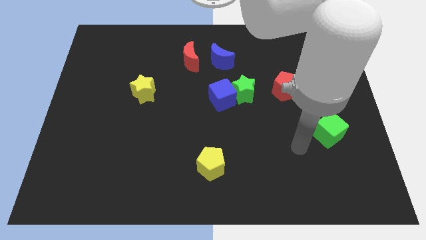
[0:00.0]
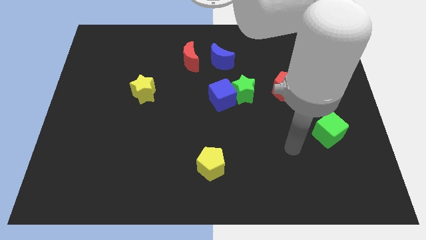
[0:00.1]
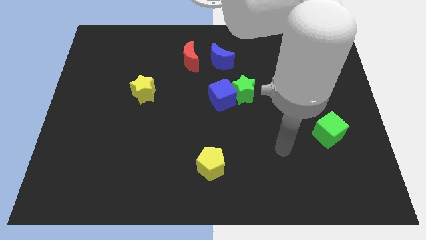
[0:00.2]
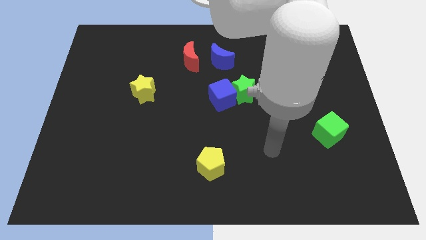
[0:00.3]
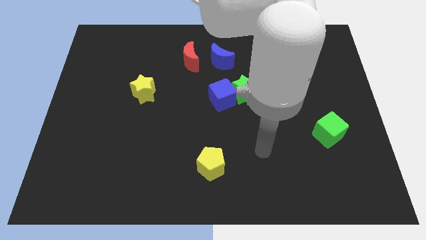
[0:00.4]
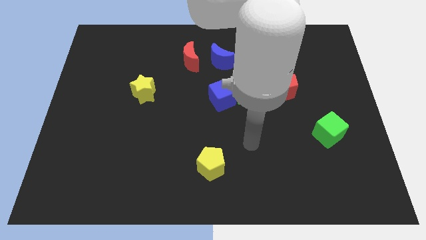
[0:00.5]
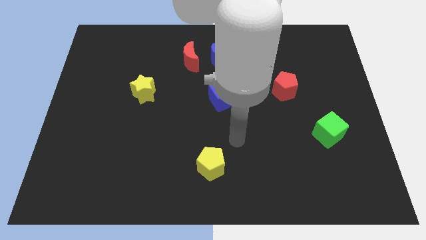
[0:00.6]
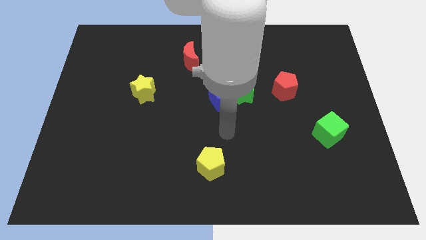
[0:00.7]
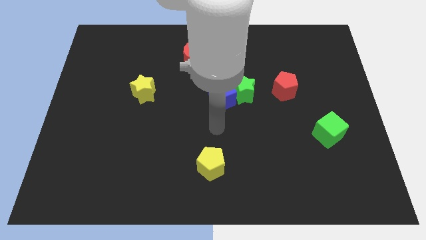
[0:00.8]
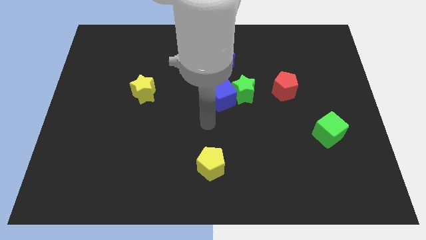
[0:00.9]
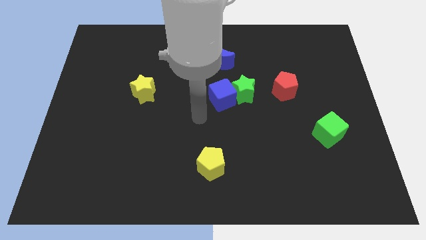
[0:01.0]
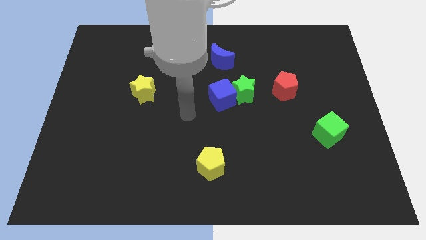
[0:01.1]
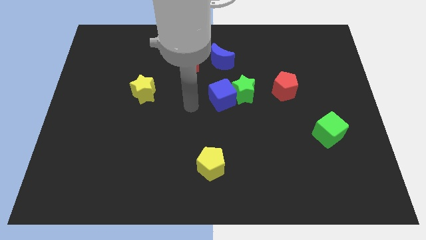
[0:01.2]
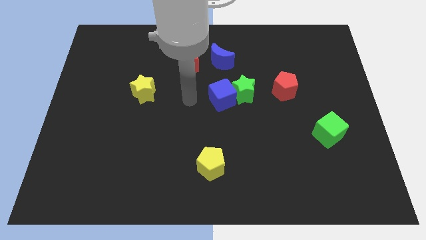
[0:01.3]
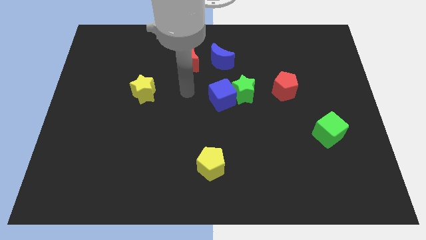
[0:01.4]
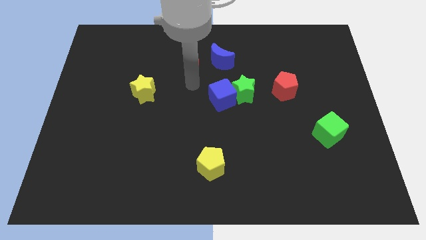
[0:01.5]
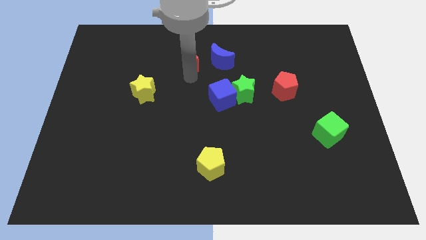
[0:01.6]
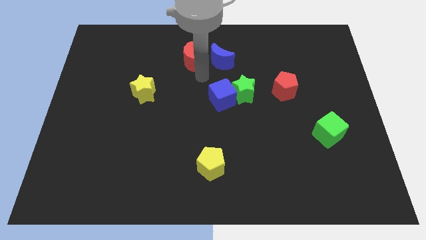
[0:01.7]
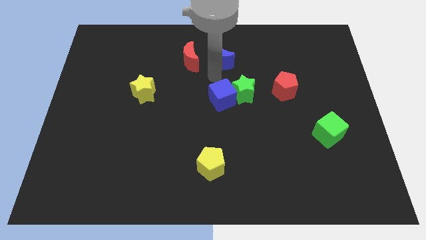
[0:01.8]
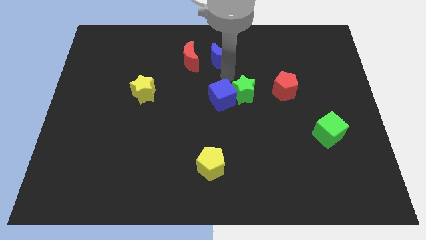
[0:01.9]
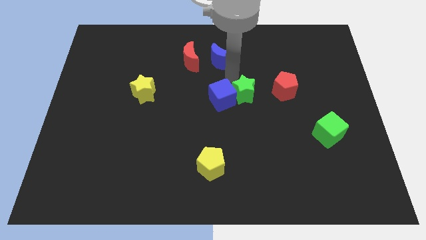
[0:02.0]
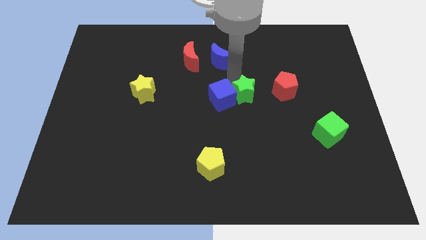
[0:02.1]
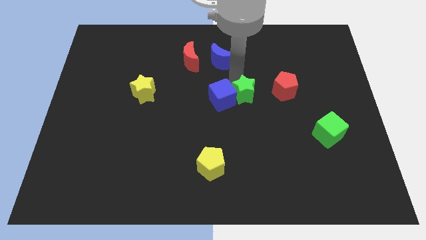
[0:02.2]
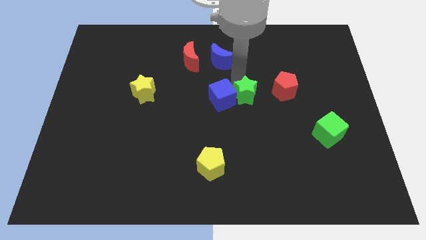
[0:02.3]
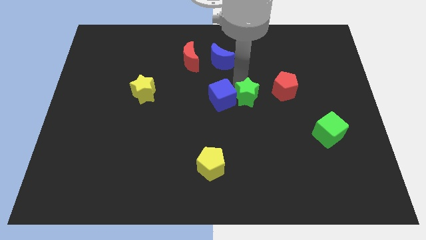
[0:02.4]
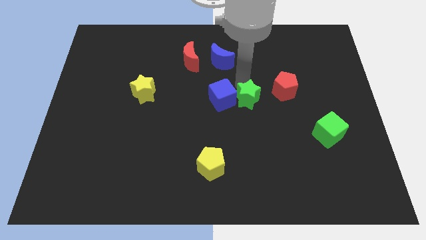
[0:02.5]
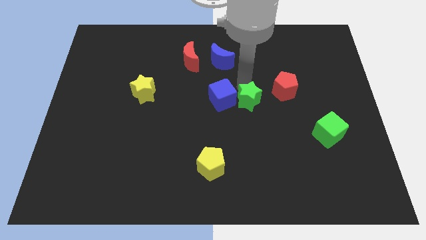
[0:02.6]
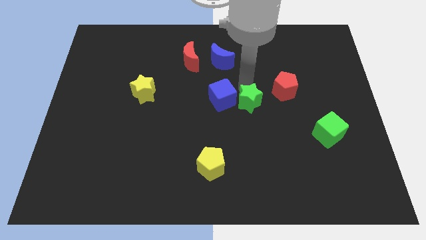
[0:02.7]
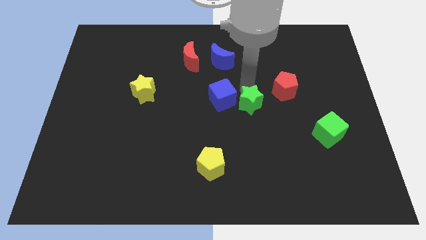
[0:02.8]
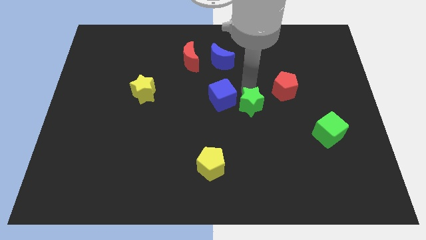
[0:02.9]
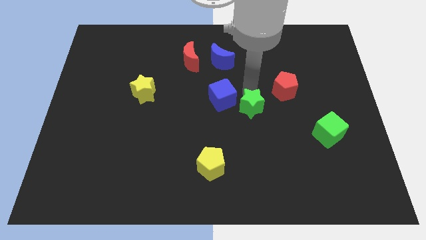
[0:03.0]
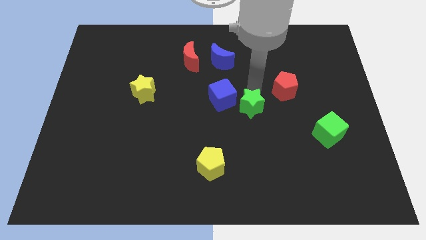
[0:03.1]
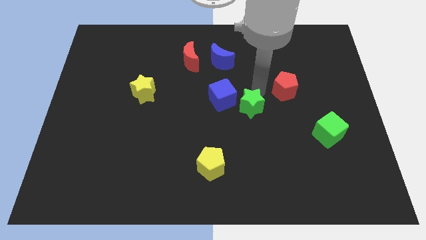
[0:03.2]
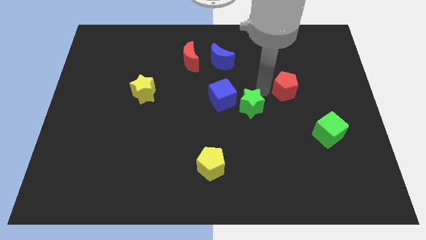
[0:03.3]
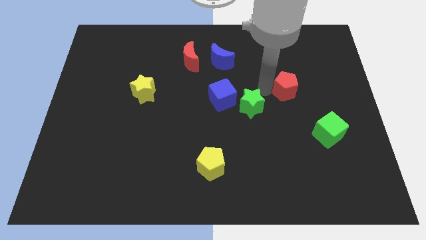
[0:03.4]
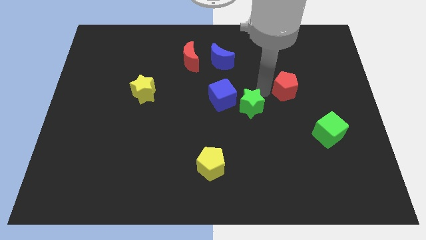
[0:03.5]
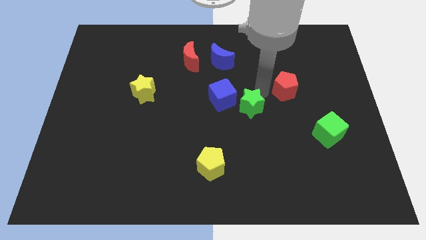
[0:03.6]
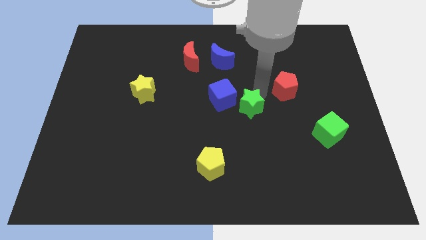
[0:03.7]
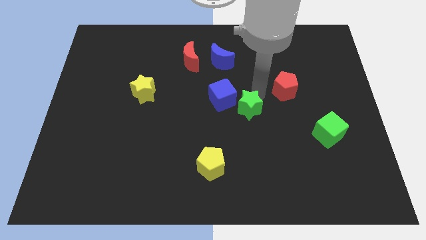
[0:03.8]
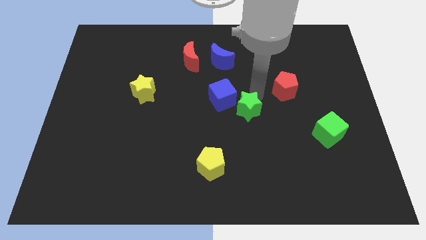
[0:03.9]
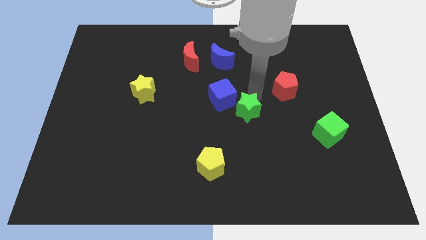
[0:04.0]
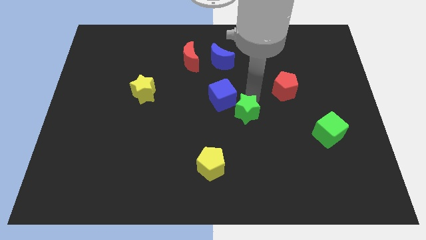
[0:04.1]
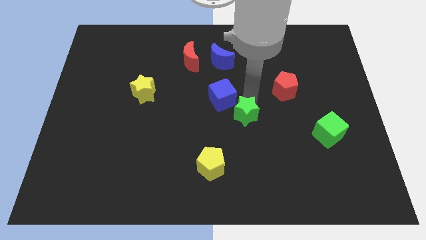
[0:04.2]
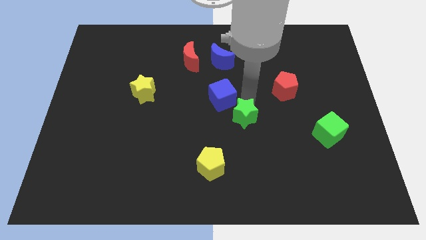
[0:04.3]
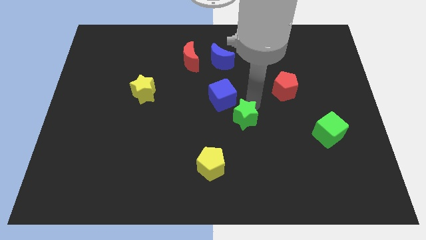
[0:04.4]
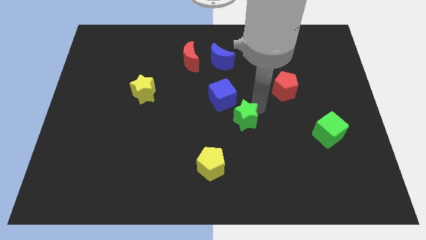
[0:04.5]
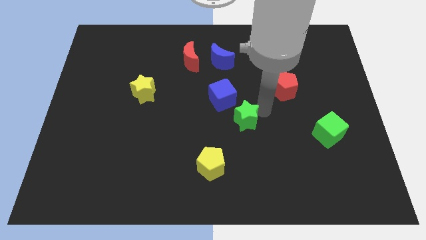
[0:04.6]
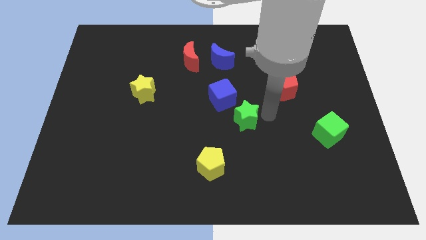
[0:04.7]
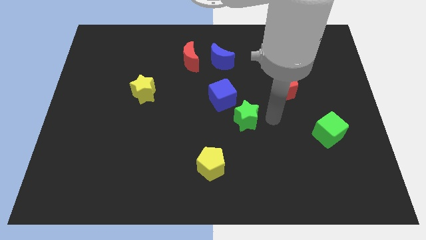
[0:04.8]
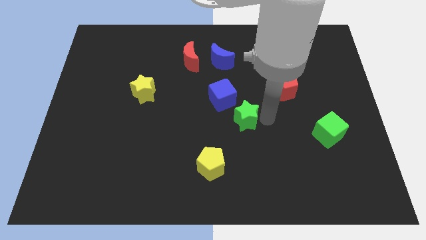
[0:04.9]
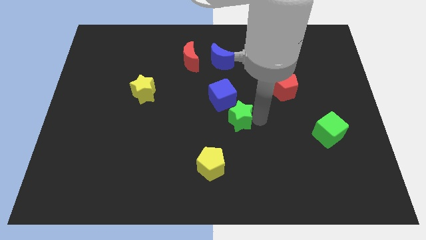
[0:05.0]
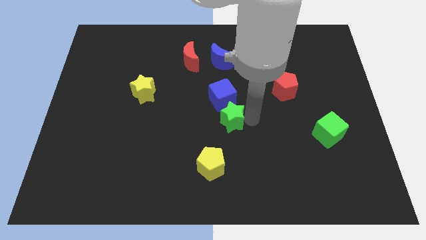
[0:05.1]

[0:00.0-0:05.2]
slightly move the green star downwards and left

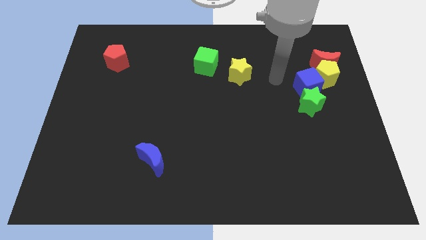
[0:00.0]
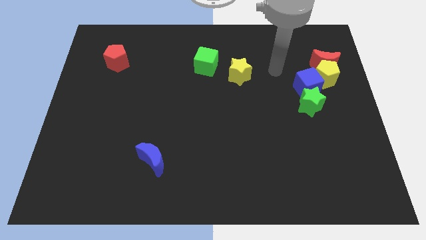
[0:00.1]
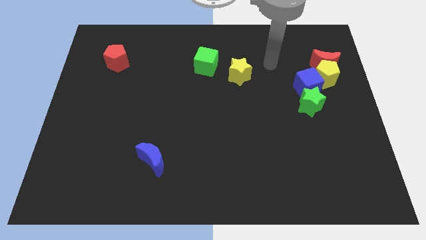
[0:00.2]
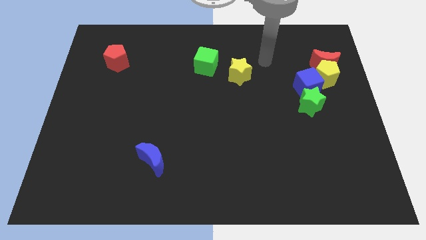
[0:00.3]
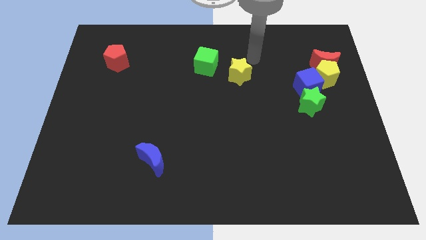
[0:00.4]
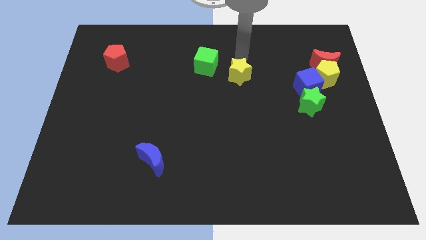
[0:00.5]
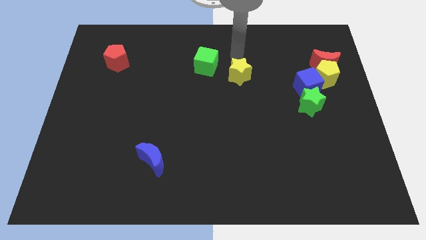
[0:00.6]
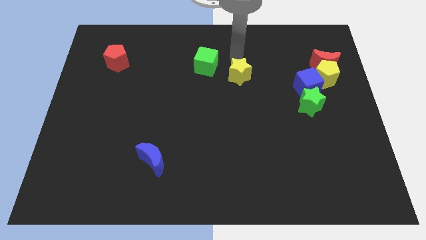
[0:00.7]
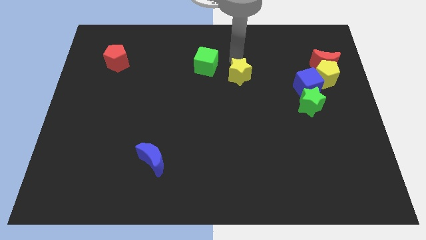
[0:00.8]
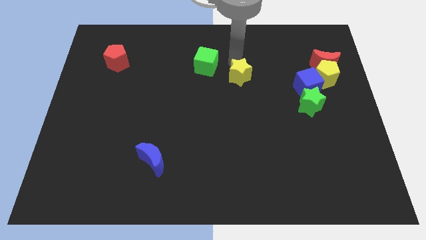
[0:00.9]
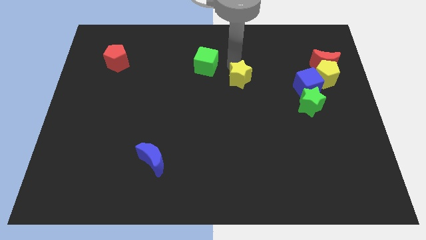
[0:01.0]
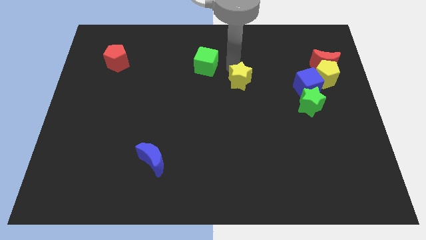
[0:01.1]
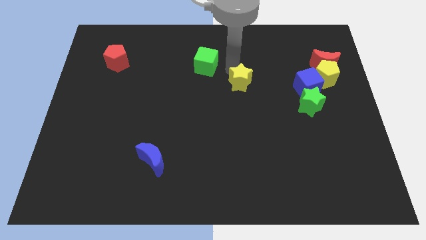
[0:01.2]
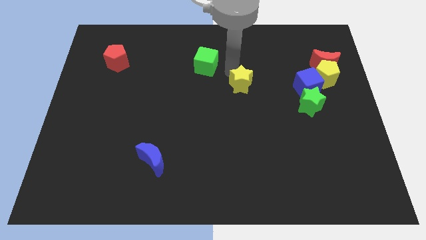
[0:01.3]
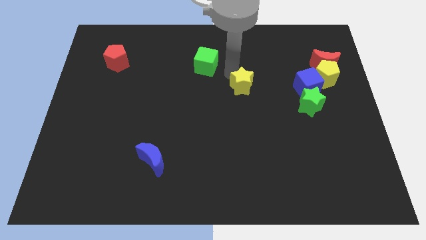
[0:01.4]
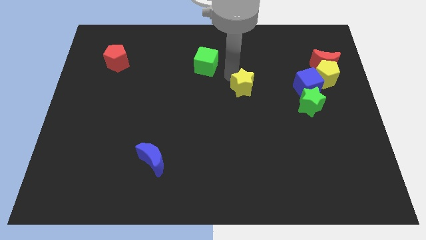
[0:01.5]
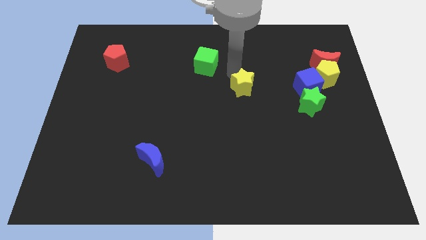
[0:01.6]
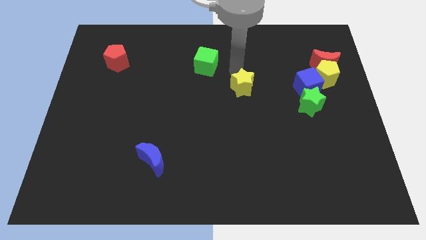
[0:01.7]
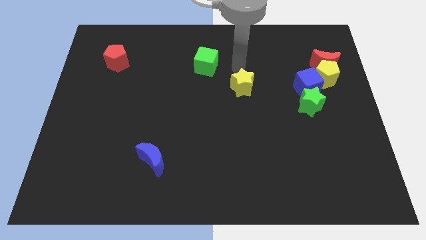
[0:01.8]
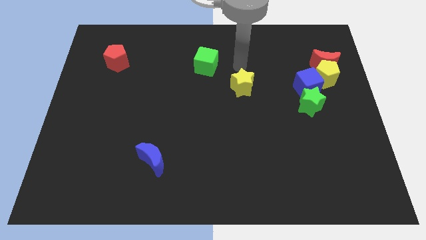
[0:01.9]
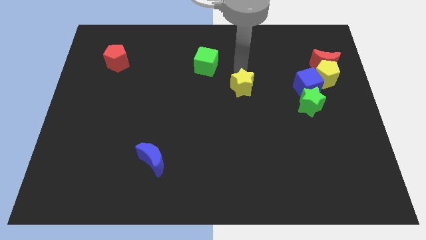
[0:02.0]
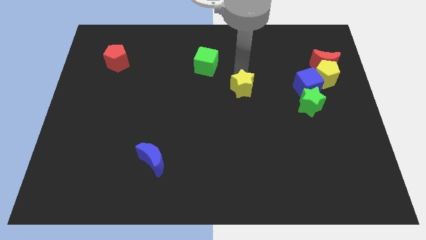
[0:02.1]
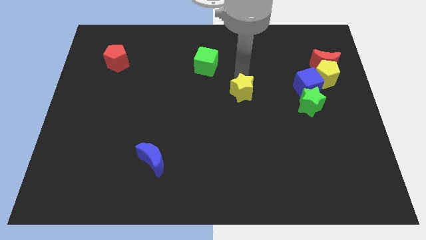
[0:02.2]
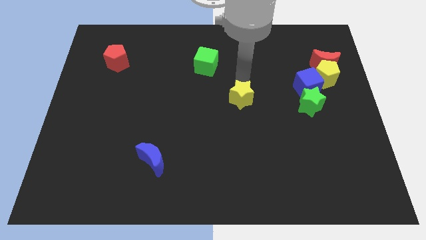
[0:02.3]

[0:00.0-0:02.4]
slide the yellow star down a little
